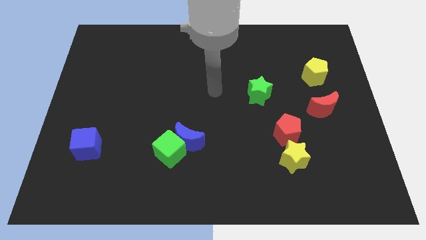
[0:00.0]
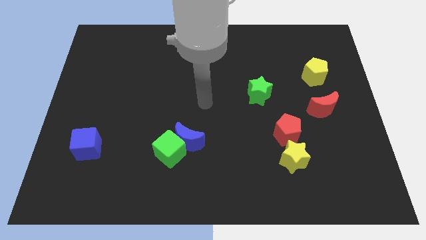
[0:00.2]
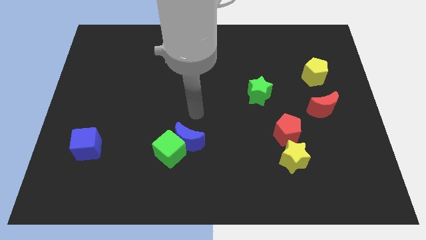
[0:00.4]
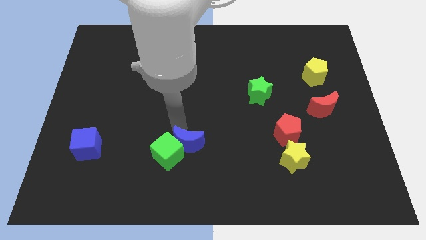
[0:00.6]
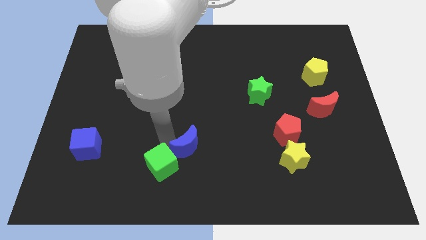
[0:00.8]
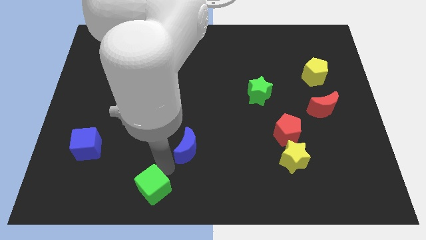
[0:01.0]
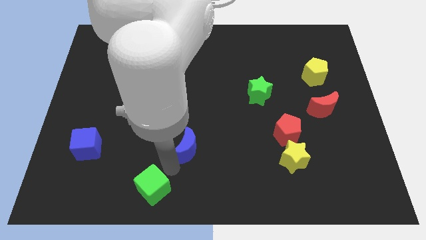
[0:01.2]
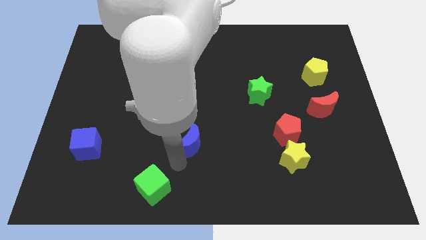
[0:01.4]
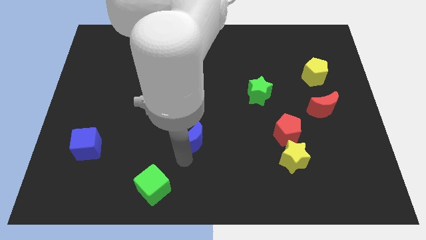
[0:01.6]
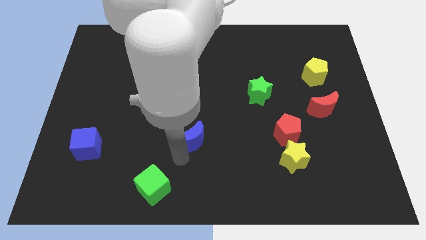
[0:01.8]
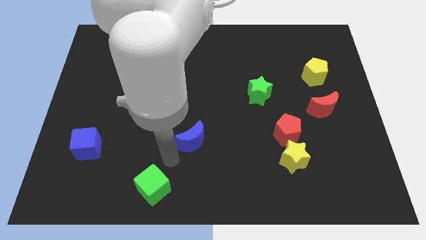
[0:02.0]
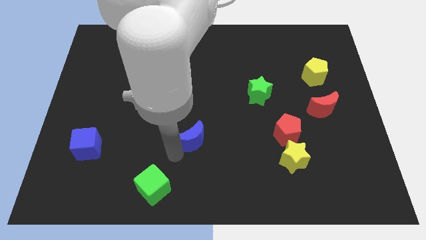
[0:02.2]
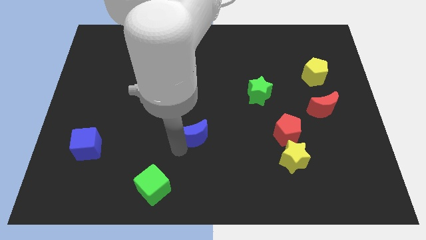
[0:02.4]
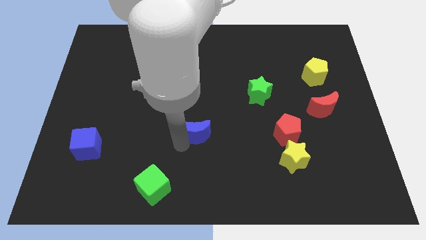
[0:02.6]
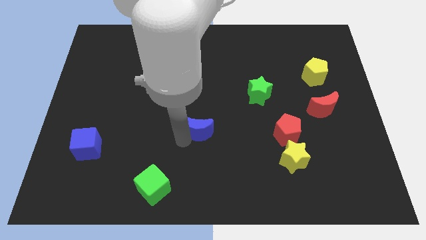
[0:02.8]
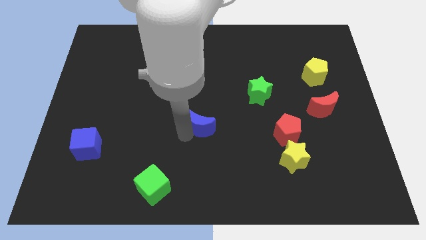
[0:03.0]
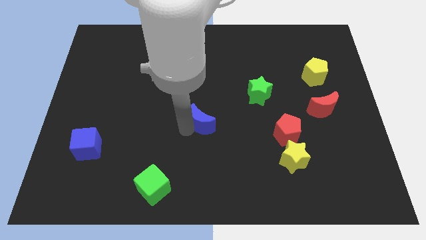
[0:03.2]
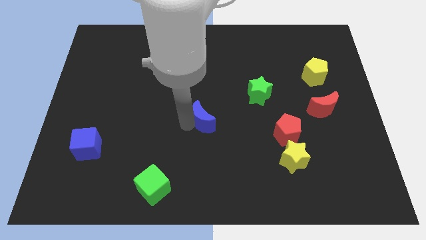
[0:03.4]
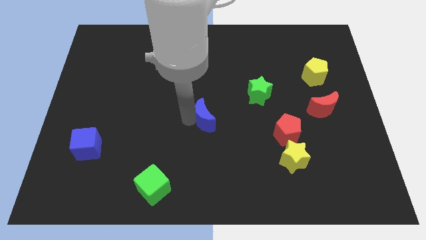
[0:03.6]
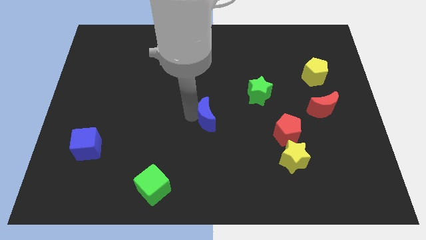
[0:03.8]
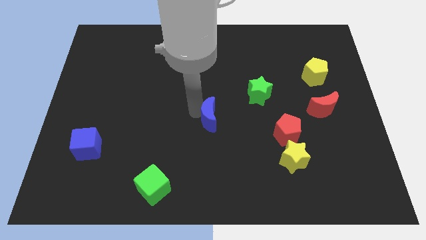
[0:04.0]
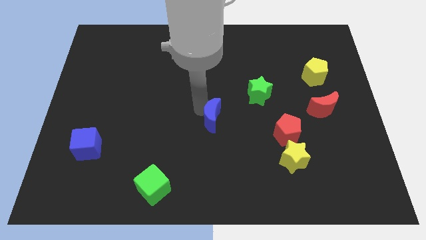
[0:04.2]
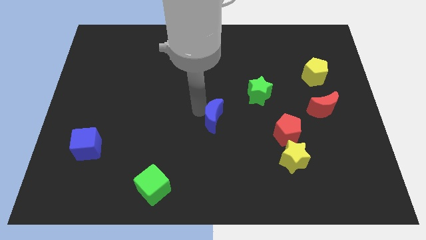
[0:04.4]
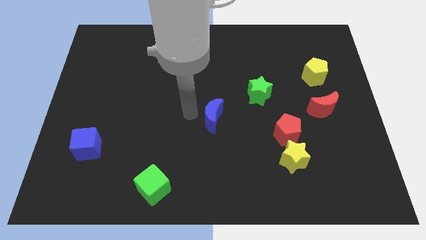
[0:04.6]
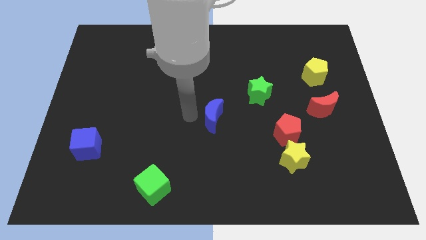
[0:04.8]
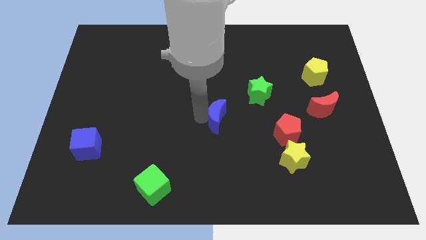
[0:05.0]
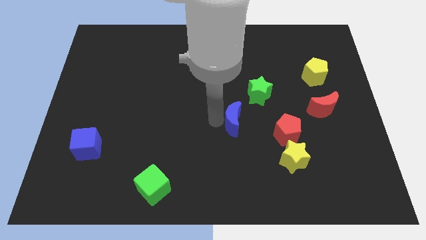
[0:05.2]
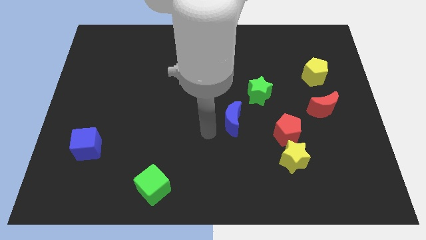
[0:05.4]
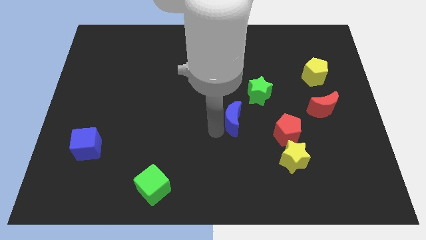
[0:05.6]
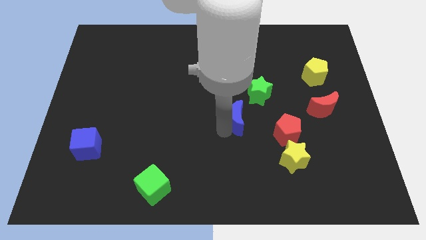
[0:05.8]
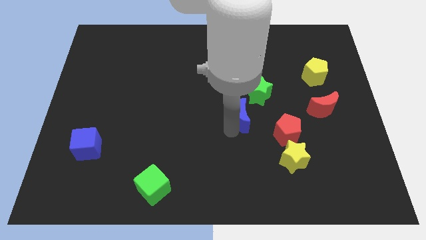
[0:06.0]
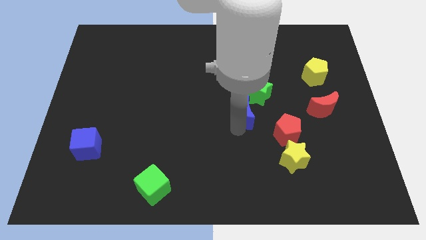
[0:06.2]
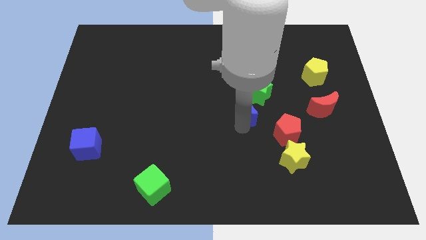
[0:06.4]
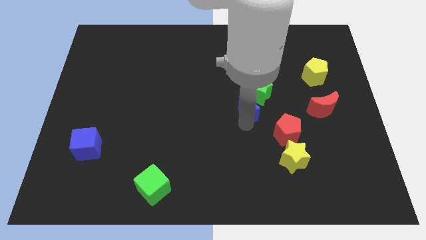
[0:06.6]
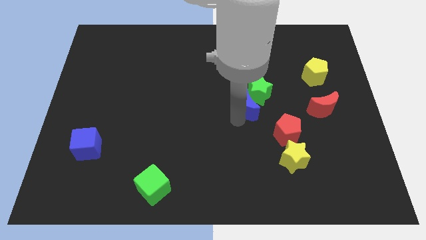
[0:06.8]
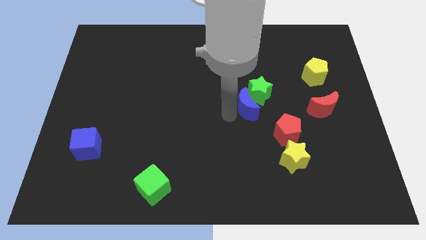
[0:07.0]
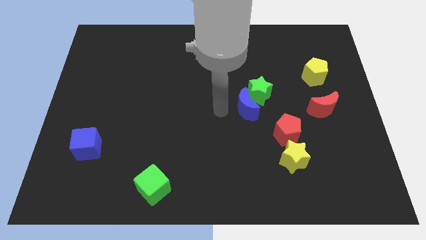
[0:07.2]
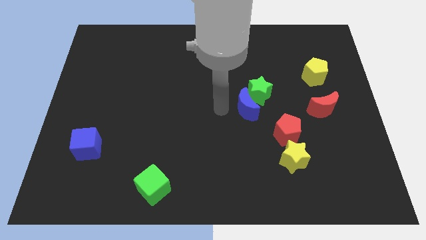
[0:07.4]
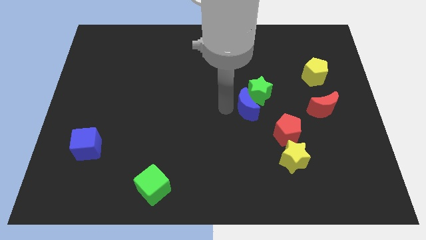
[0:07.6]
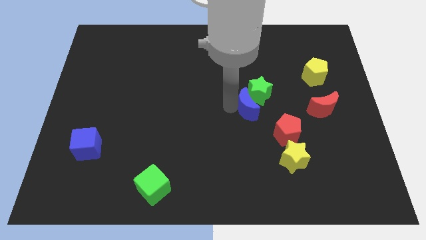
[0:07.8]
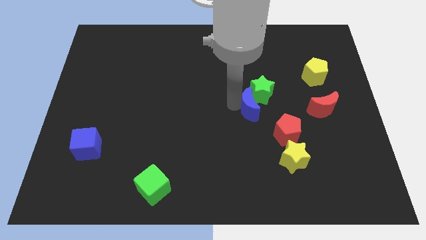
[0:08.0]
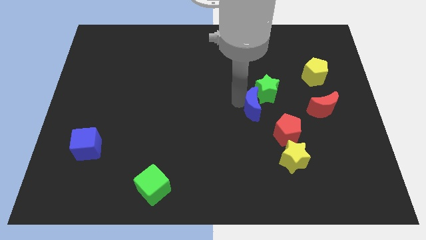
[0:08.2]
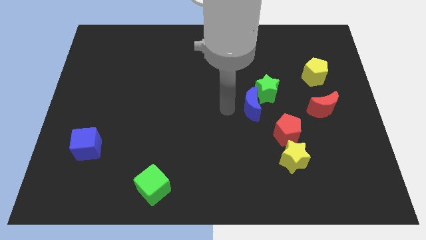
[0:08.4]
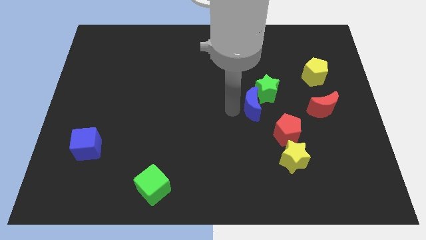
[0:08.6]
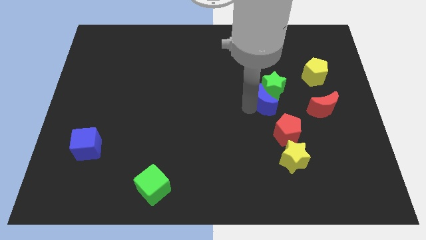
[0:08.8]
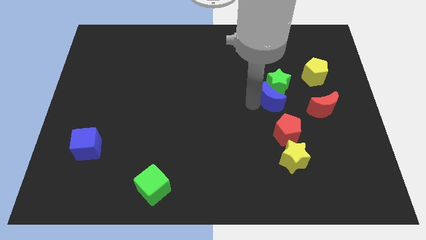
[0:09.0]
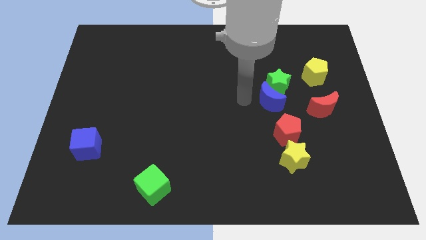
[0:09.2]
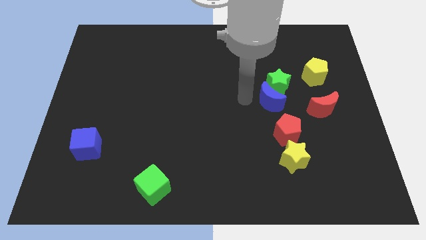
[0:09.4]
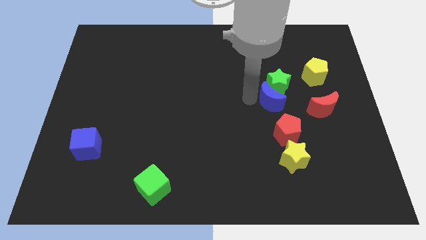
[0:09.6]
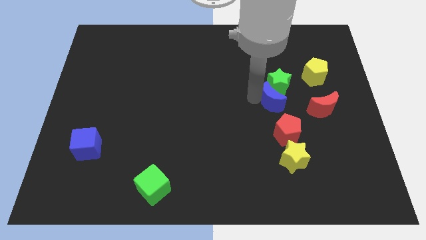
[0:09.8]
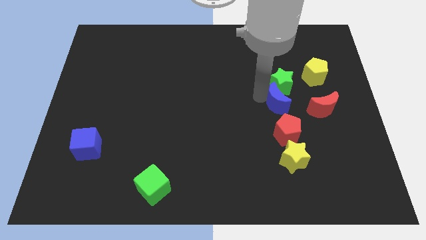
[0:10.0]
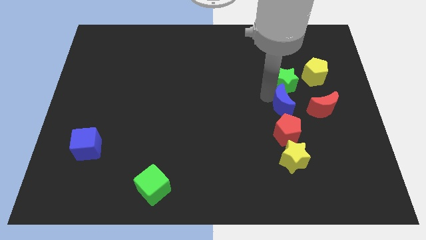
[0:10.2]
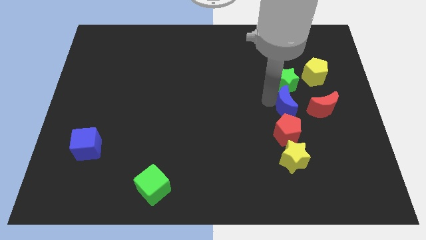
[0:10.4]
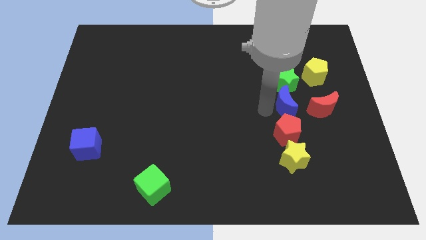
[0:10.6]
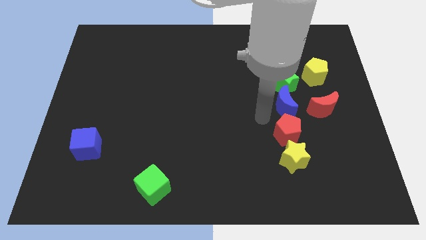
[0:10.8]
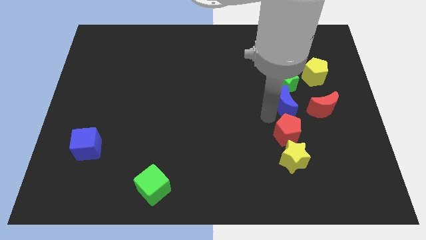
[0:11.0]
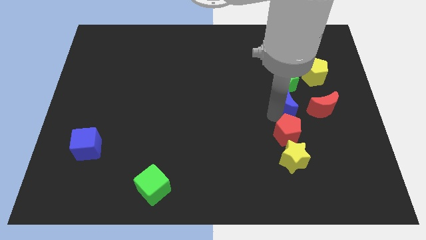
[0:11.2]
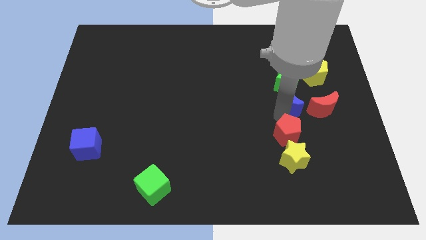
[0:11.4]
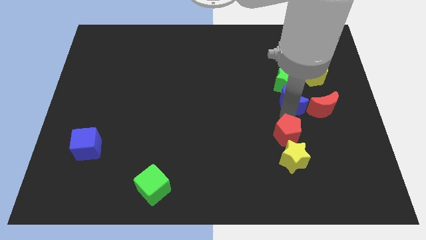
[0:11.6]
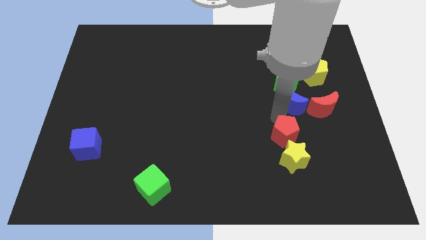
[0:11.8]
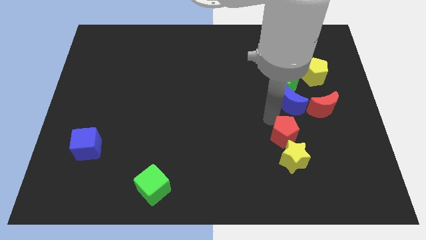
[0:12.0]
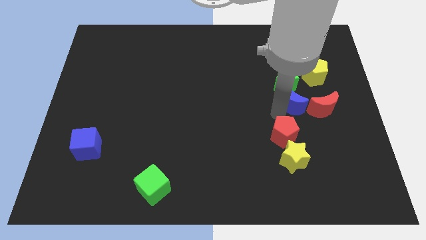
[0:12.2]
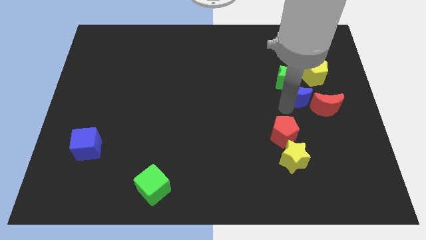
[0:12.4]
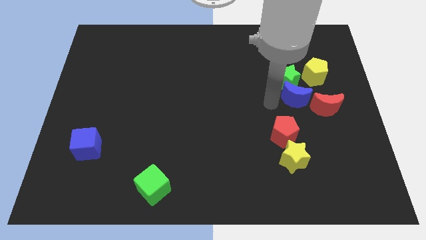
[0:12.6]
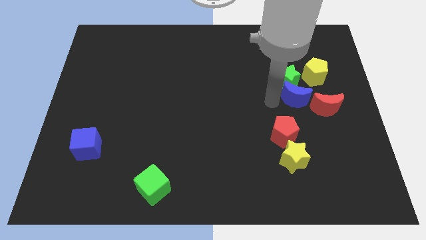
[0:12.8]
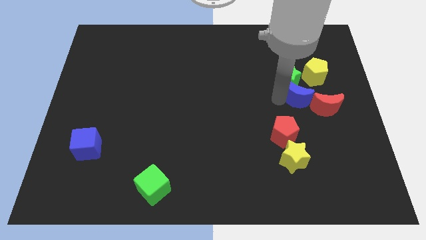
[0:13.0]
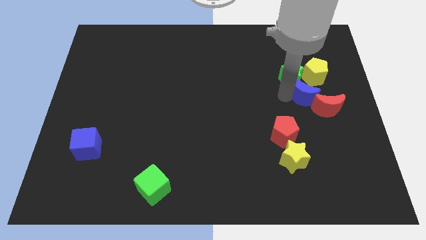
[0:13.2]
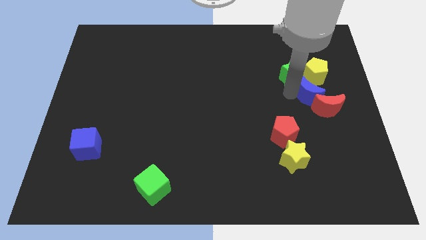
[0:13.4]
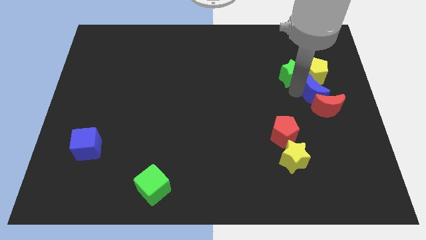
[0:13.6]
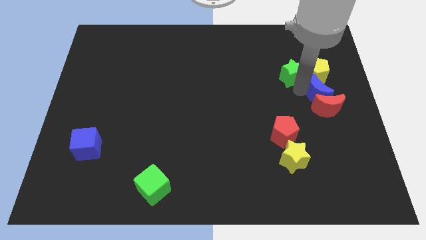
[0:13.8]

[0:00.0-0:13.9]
push the blue moon to the center right

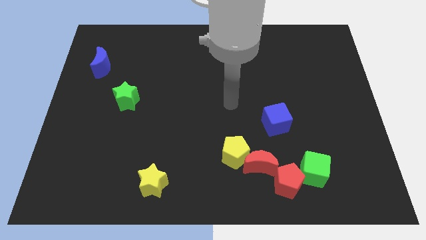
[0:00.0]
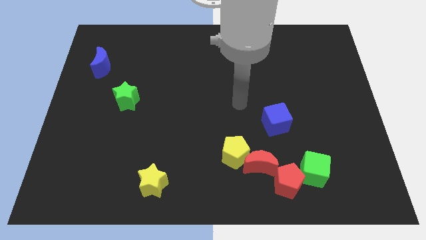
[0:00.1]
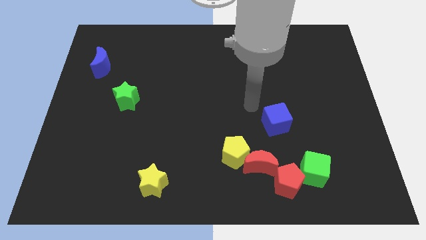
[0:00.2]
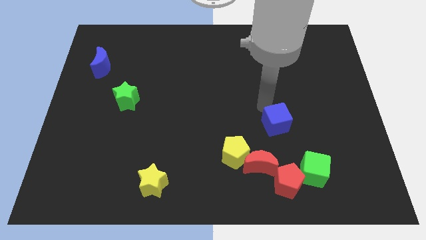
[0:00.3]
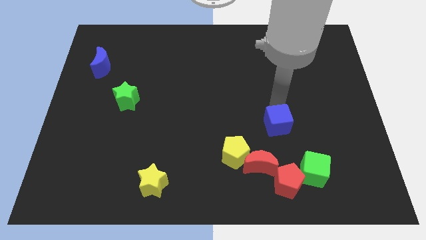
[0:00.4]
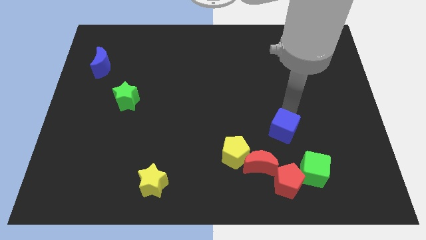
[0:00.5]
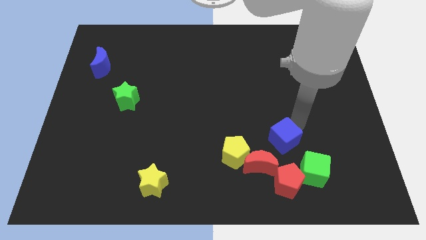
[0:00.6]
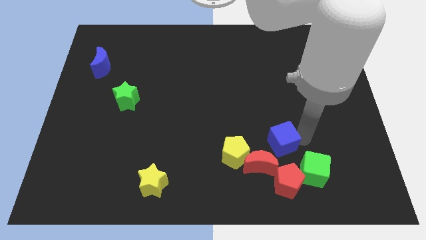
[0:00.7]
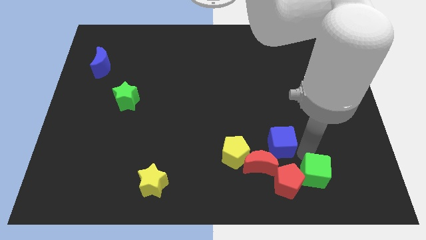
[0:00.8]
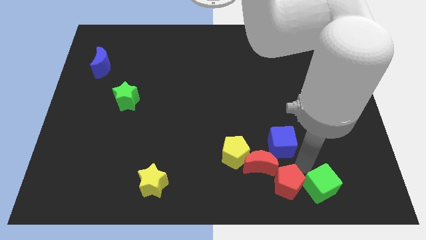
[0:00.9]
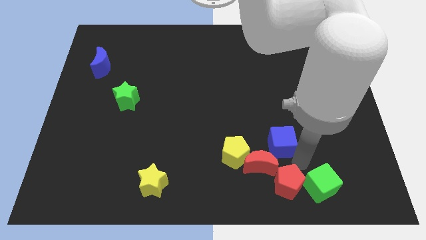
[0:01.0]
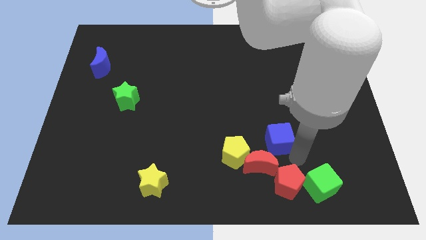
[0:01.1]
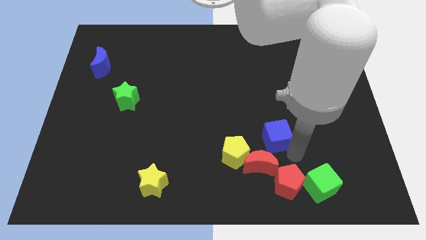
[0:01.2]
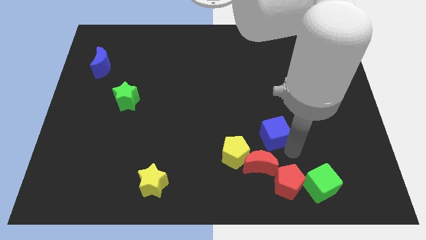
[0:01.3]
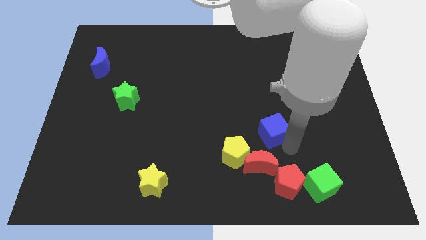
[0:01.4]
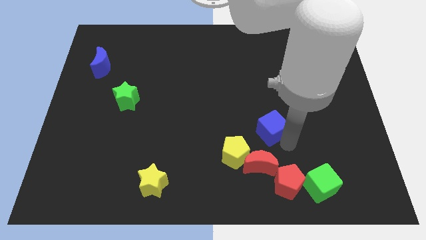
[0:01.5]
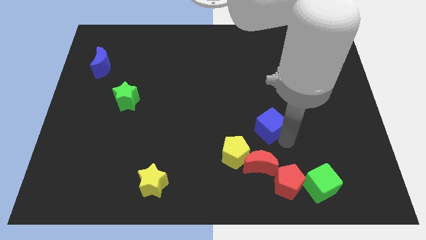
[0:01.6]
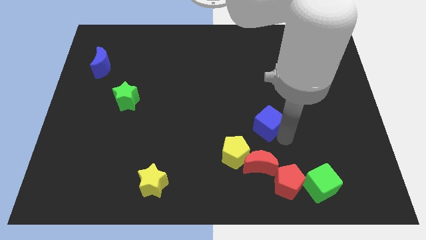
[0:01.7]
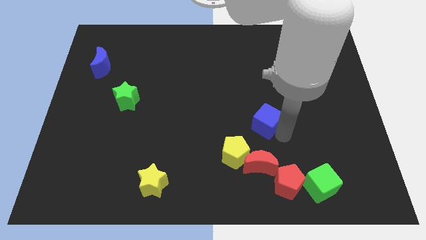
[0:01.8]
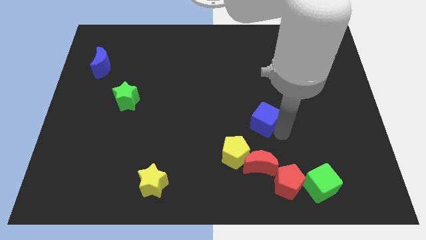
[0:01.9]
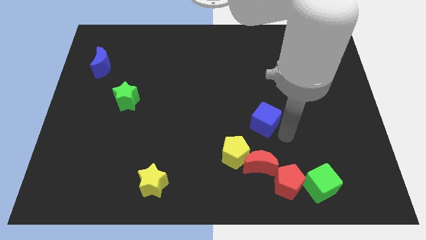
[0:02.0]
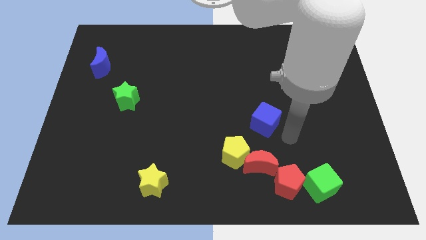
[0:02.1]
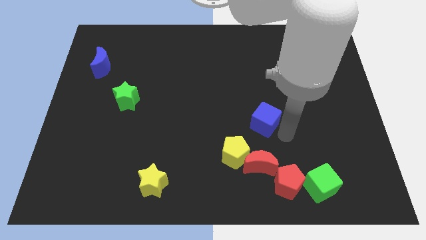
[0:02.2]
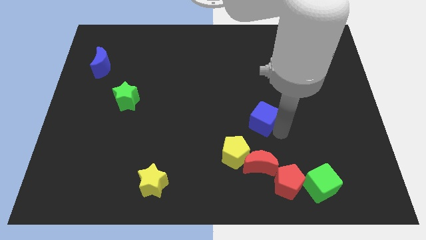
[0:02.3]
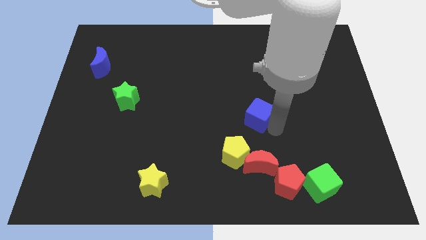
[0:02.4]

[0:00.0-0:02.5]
slide the blue cube to the center
